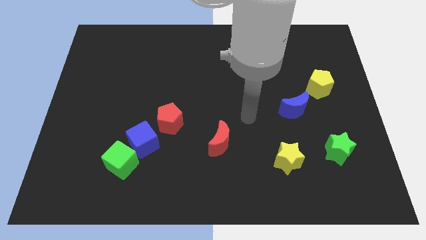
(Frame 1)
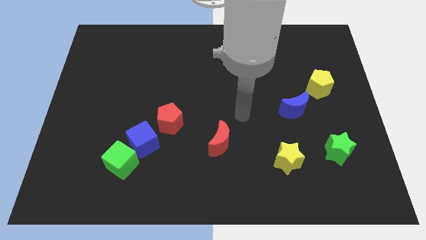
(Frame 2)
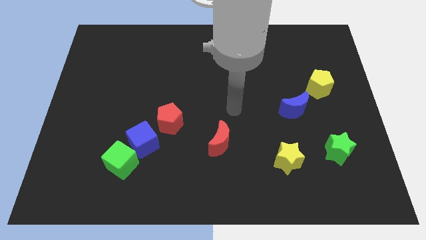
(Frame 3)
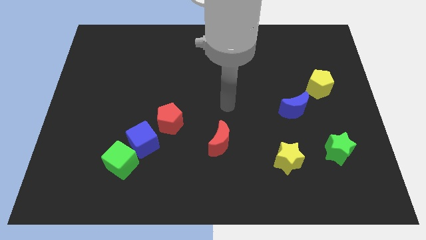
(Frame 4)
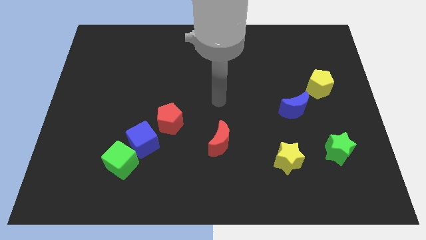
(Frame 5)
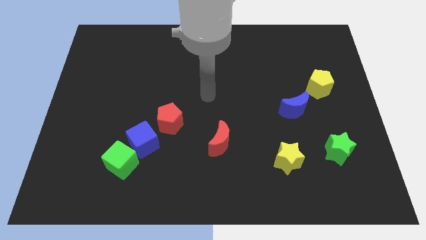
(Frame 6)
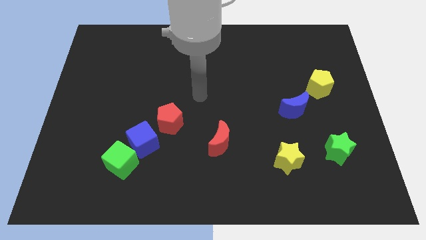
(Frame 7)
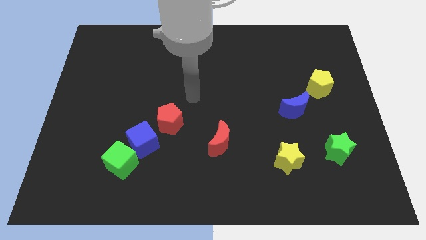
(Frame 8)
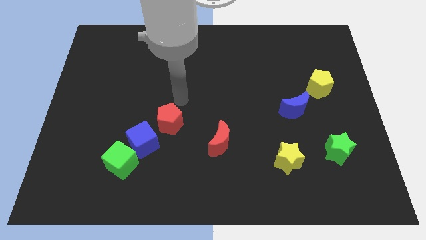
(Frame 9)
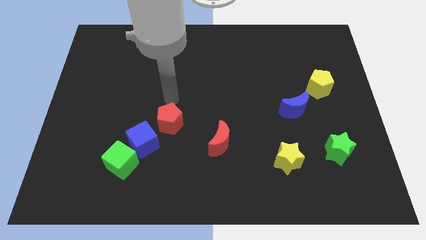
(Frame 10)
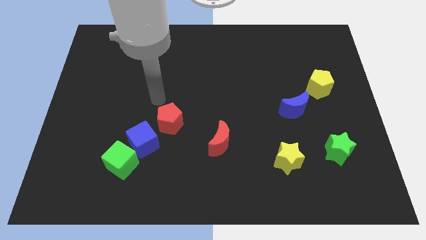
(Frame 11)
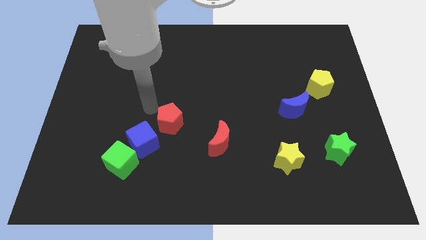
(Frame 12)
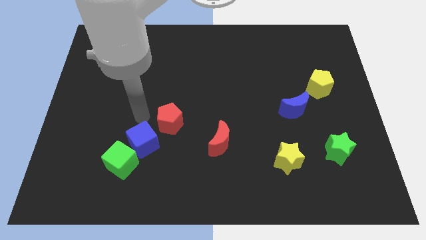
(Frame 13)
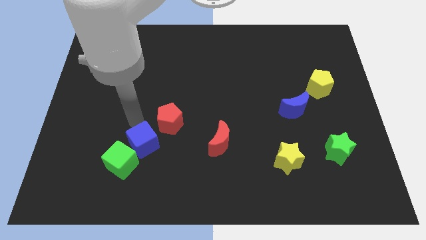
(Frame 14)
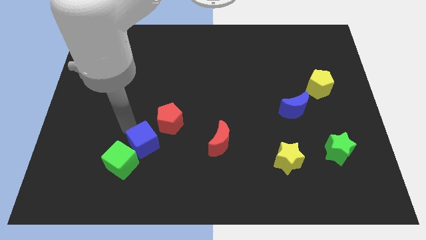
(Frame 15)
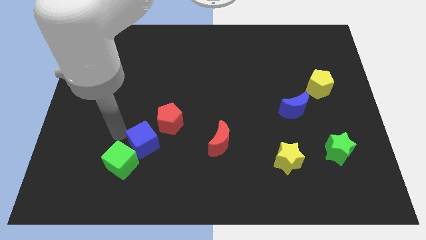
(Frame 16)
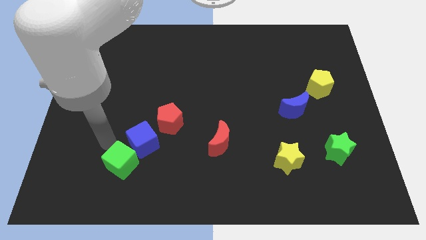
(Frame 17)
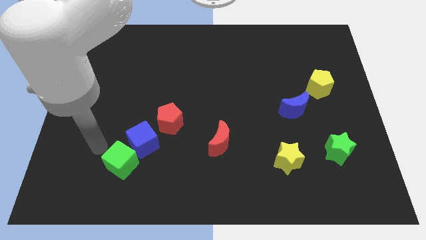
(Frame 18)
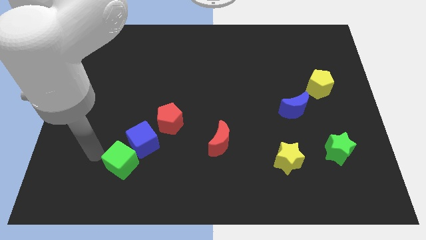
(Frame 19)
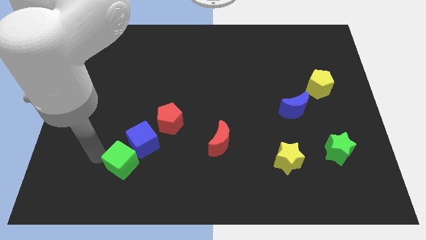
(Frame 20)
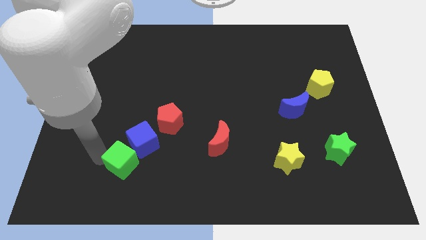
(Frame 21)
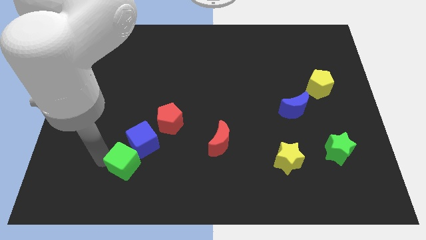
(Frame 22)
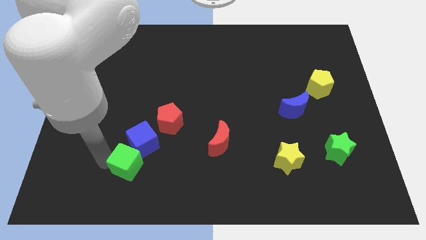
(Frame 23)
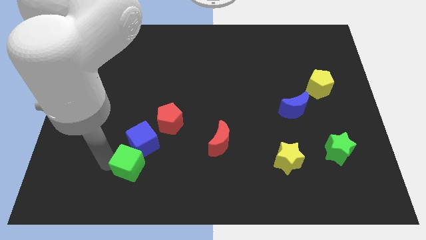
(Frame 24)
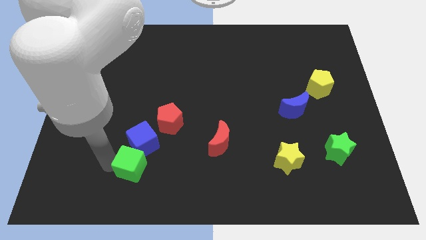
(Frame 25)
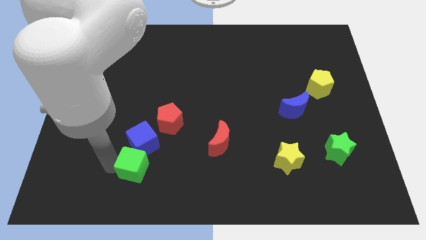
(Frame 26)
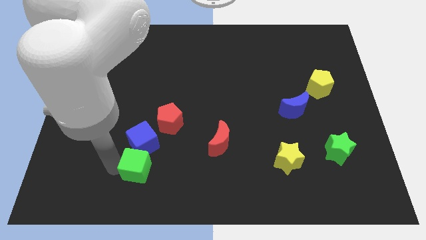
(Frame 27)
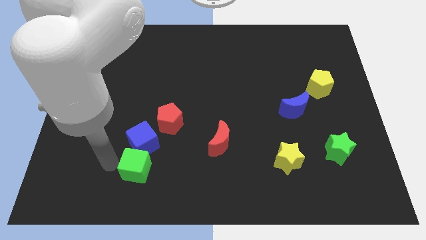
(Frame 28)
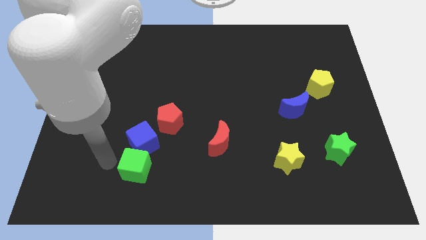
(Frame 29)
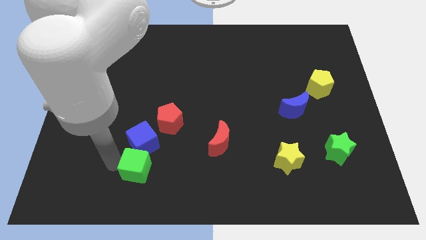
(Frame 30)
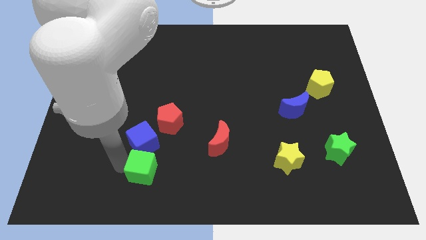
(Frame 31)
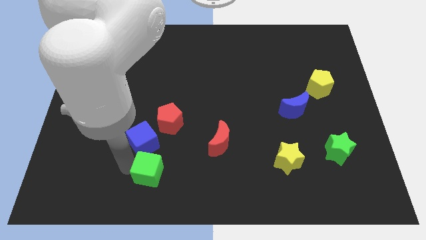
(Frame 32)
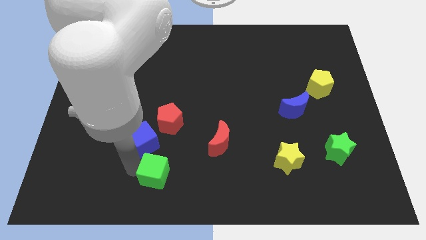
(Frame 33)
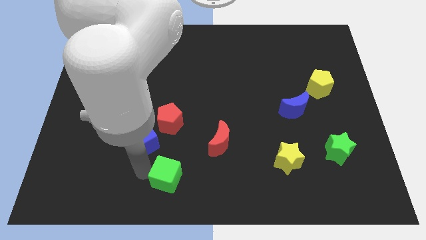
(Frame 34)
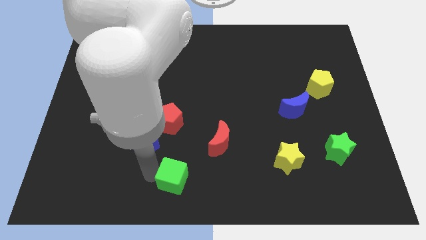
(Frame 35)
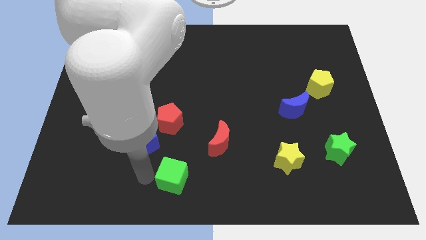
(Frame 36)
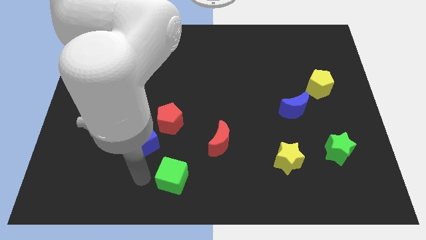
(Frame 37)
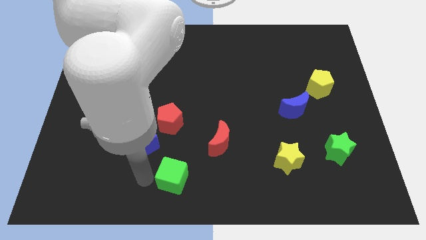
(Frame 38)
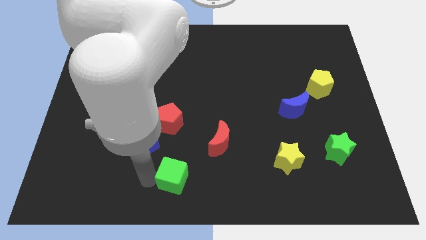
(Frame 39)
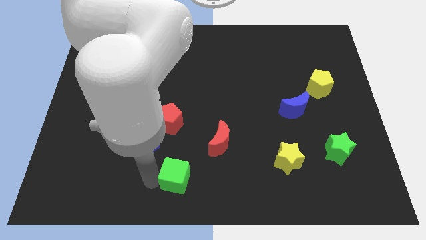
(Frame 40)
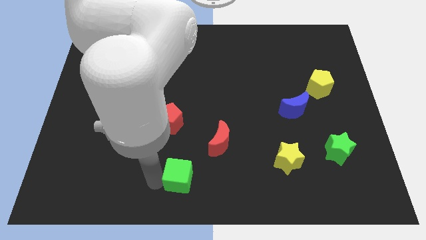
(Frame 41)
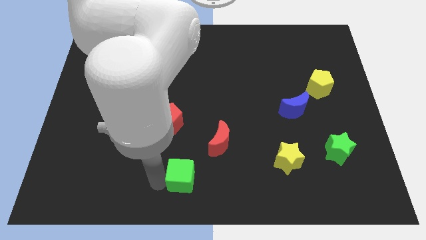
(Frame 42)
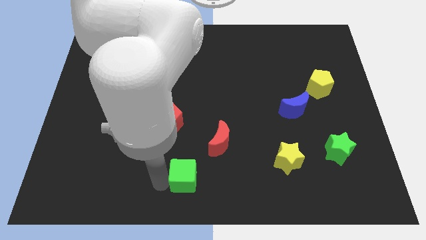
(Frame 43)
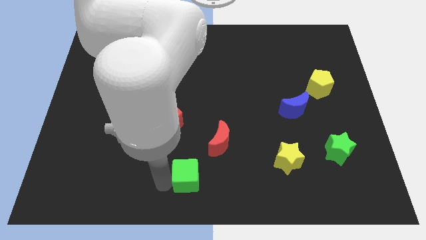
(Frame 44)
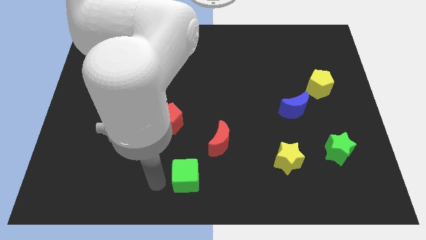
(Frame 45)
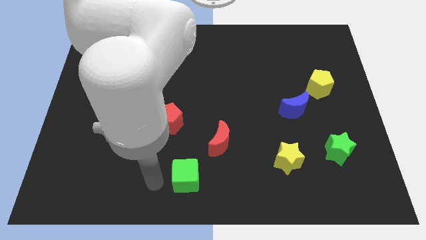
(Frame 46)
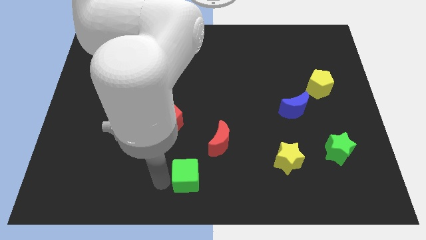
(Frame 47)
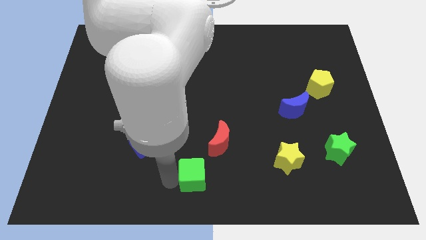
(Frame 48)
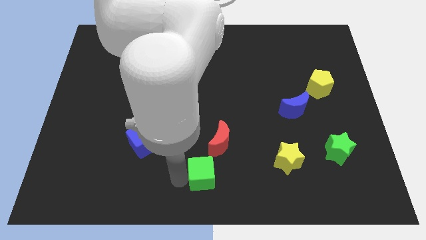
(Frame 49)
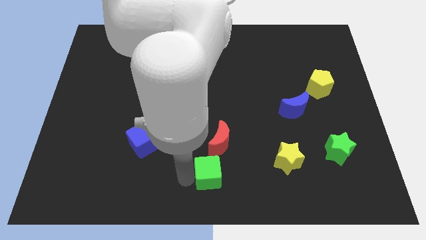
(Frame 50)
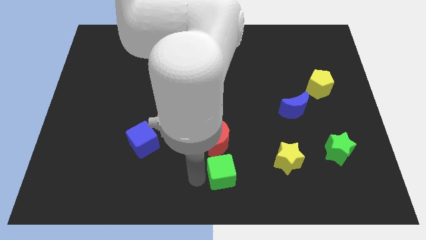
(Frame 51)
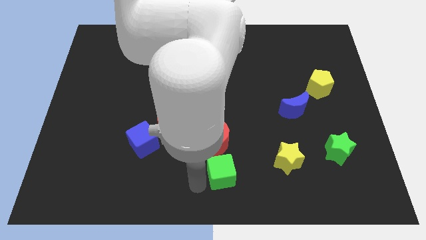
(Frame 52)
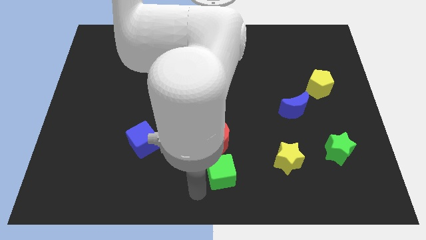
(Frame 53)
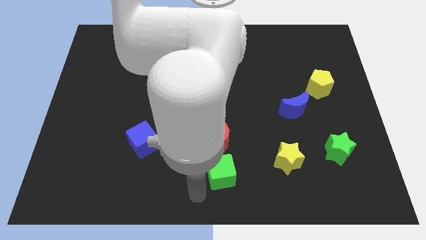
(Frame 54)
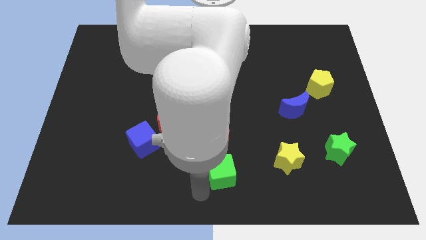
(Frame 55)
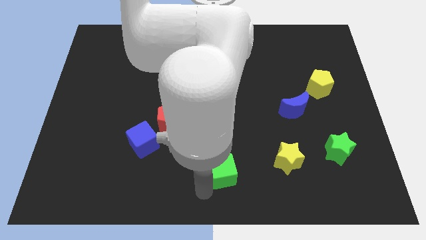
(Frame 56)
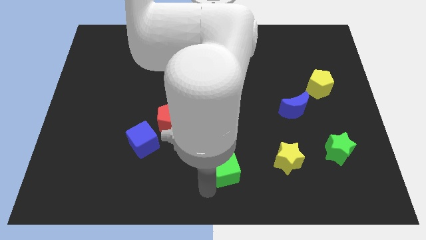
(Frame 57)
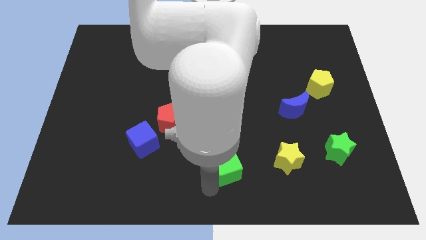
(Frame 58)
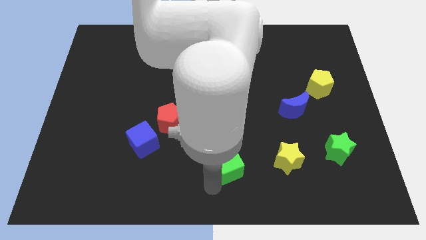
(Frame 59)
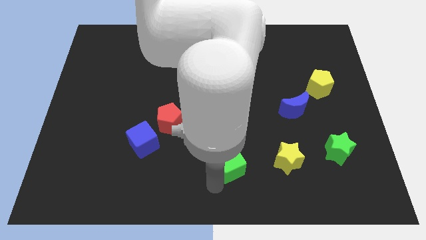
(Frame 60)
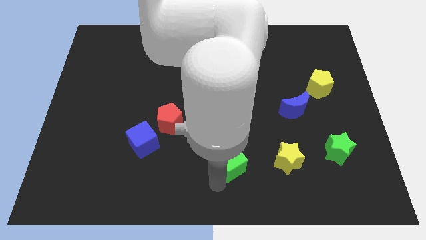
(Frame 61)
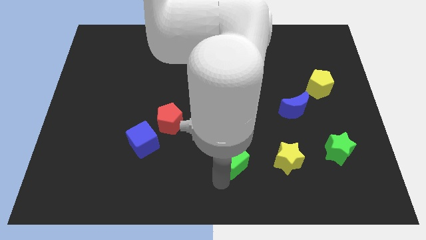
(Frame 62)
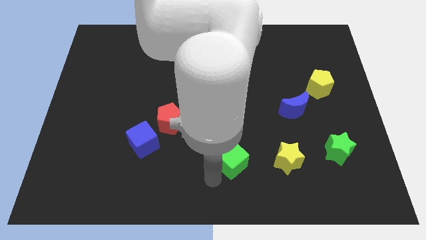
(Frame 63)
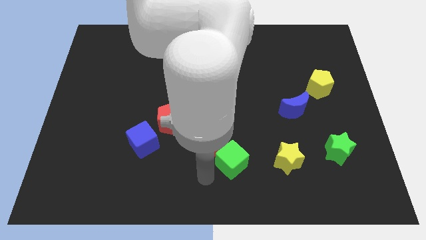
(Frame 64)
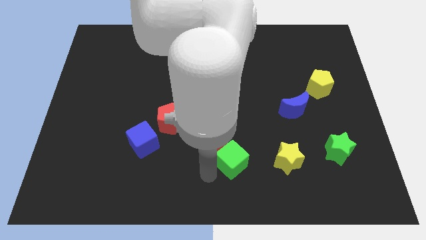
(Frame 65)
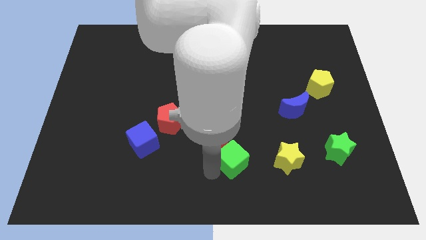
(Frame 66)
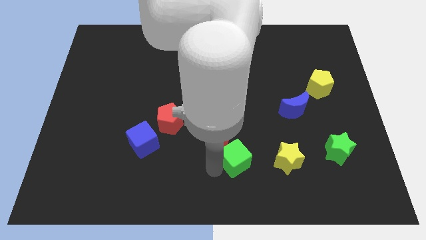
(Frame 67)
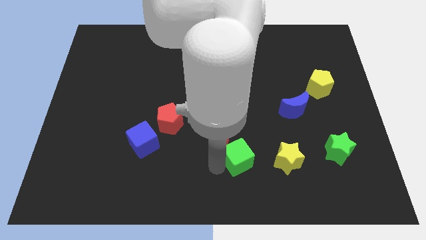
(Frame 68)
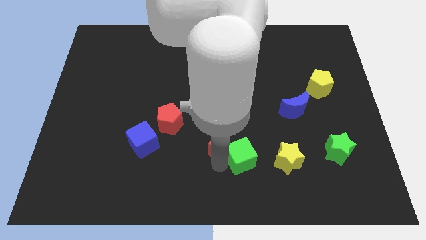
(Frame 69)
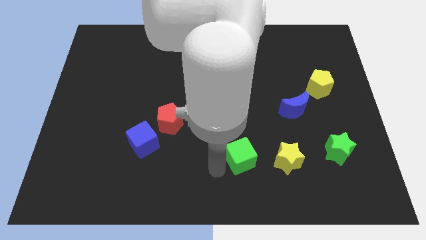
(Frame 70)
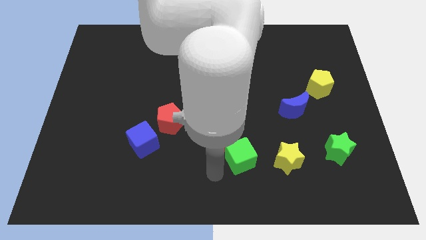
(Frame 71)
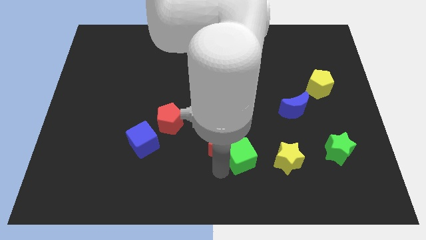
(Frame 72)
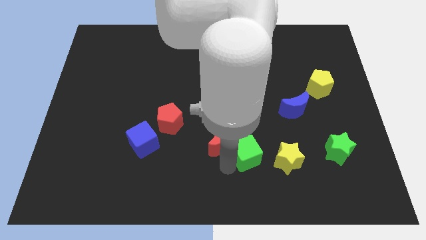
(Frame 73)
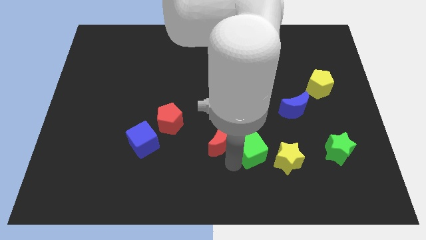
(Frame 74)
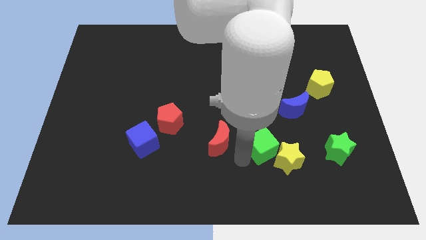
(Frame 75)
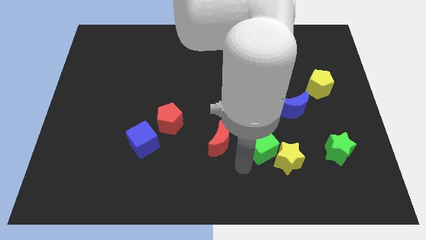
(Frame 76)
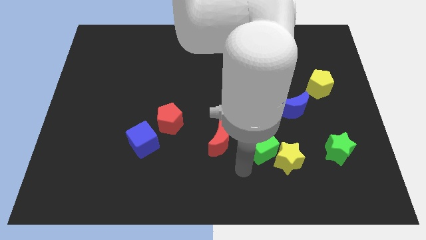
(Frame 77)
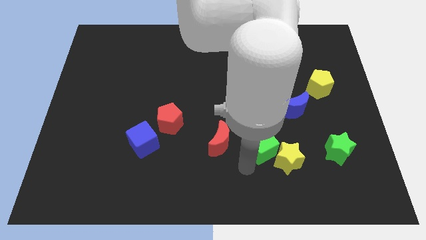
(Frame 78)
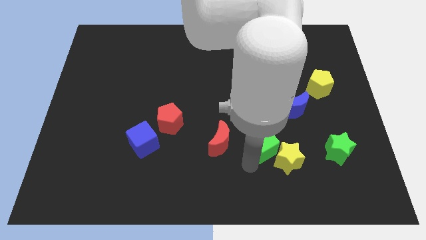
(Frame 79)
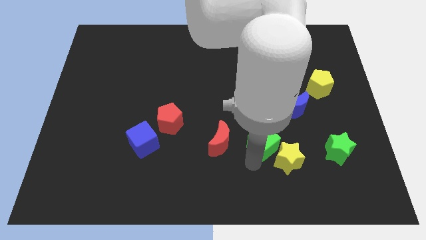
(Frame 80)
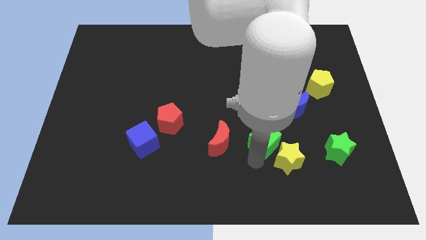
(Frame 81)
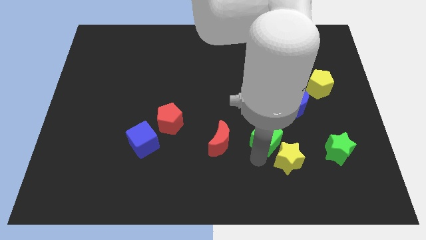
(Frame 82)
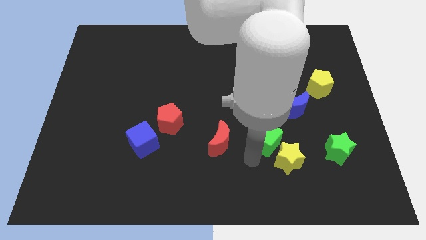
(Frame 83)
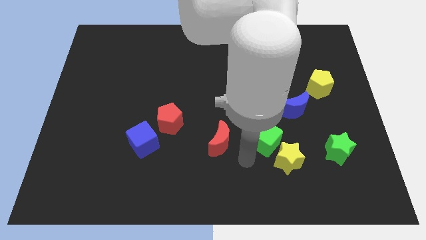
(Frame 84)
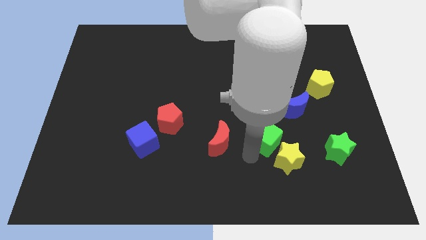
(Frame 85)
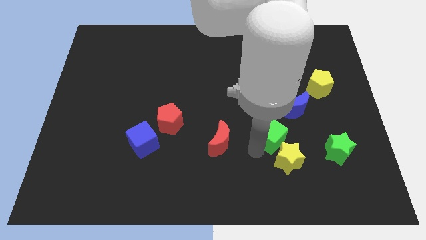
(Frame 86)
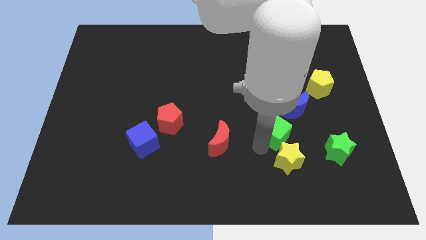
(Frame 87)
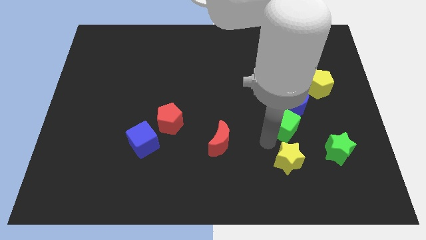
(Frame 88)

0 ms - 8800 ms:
slide the green cube close to the blue moon
